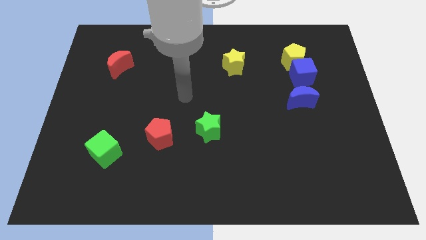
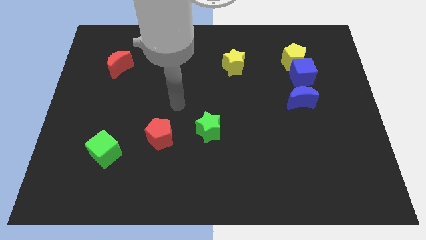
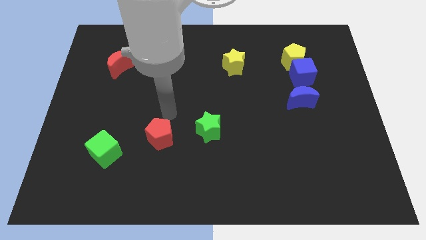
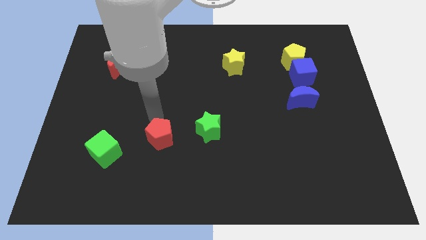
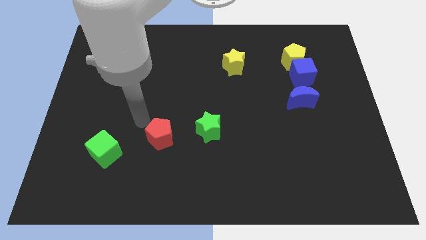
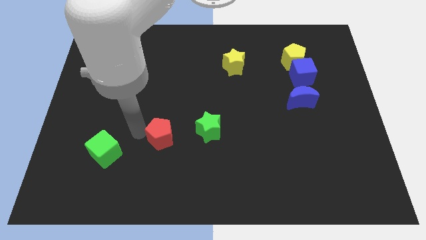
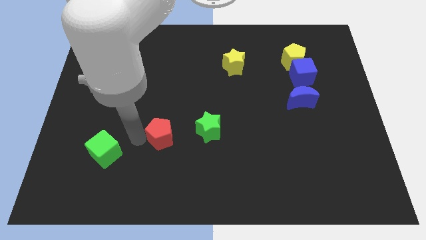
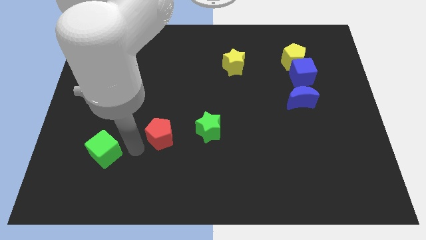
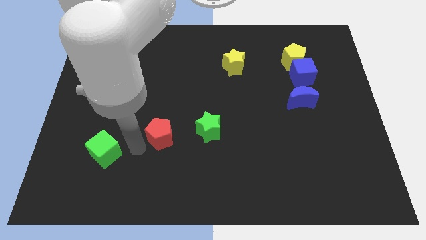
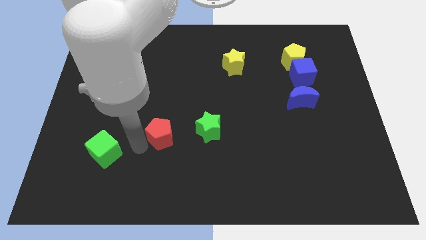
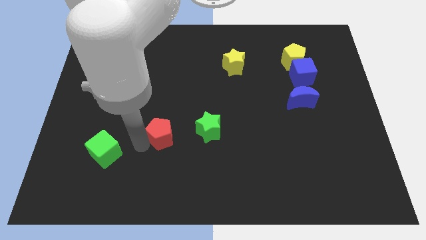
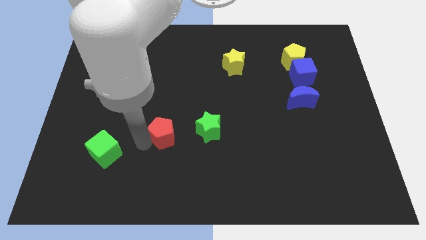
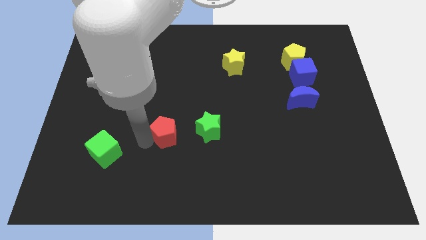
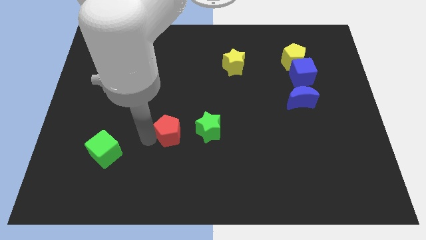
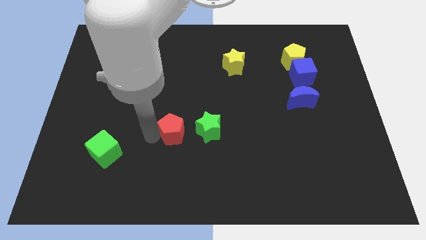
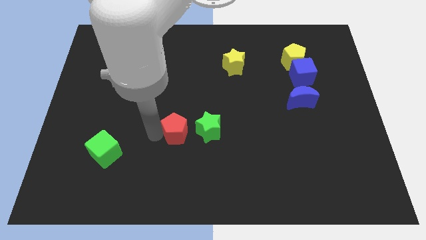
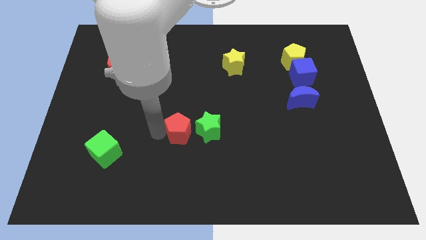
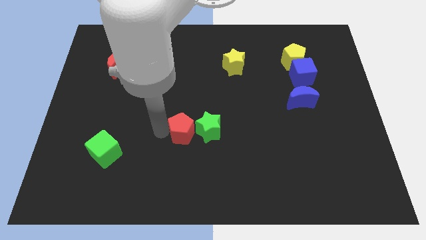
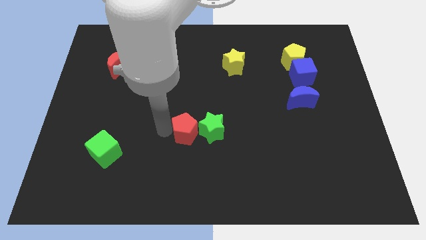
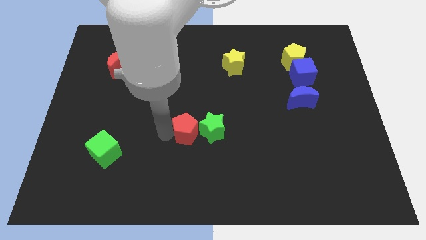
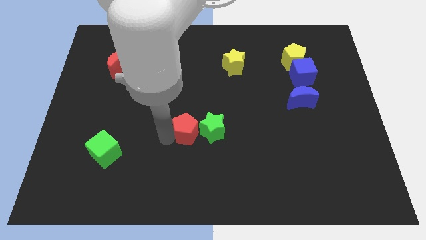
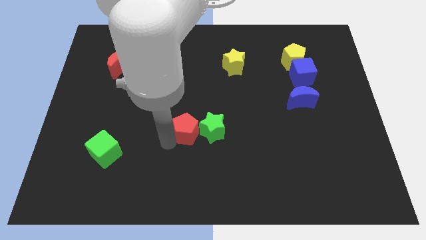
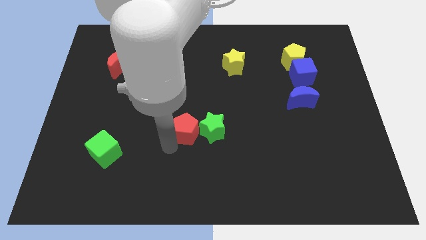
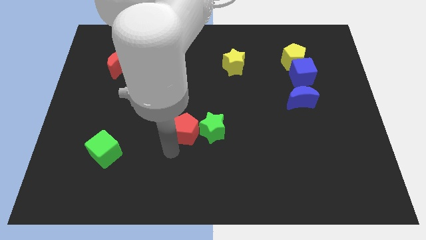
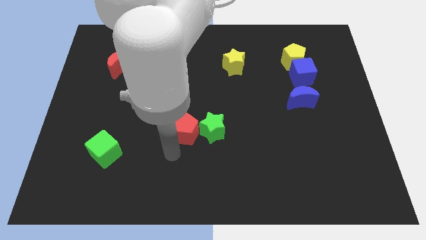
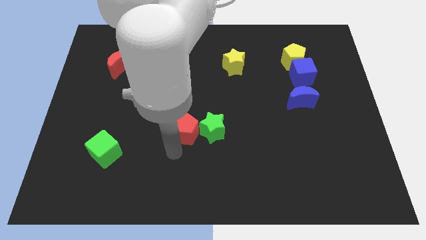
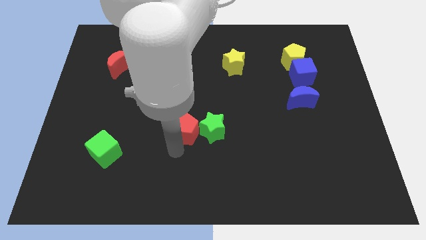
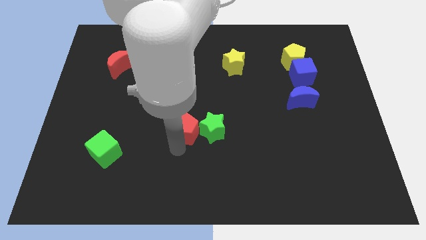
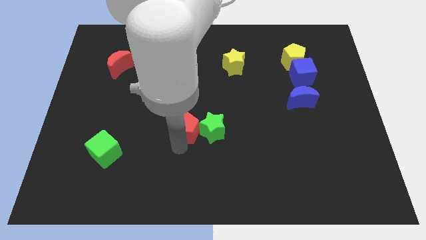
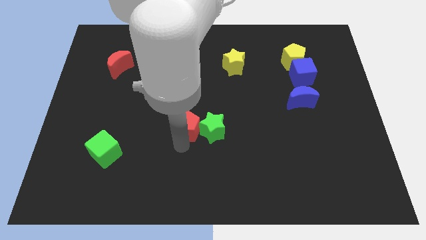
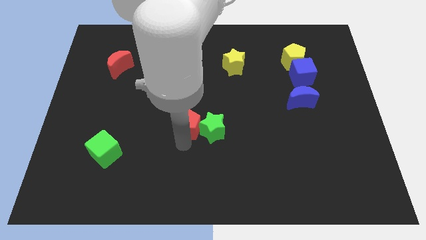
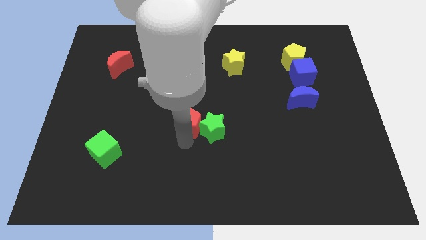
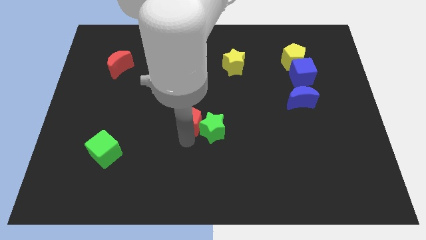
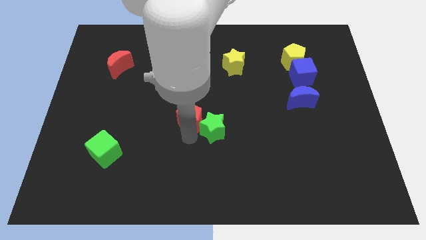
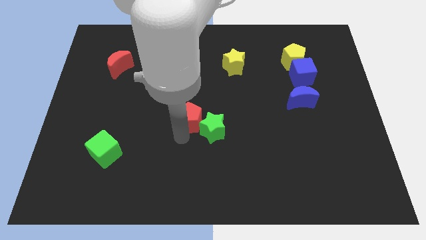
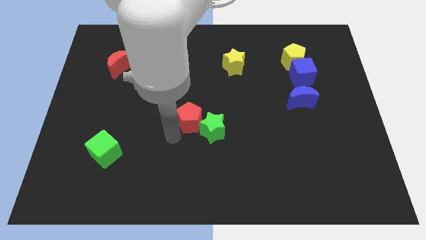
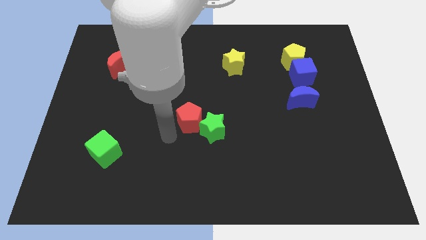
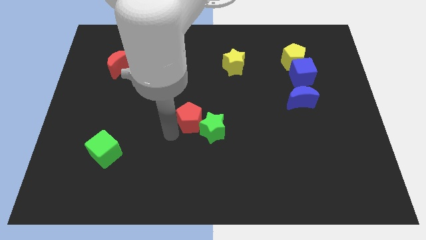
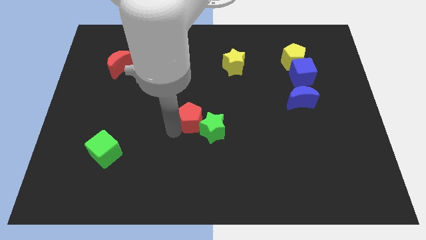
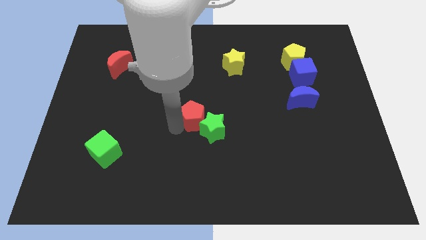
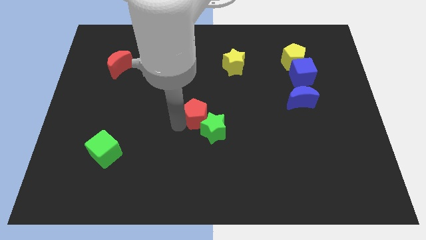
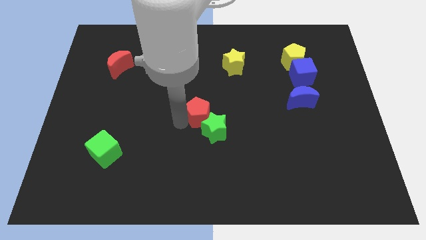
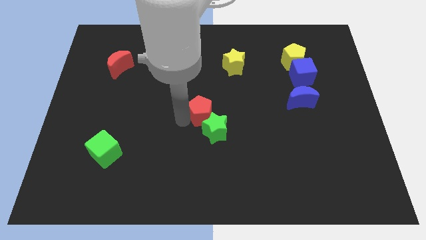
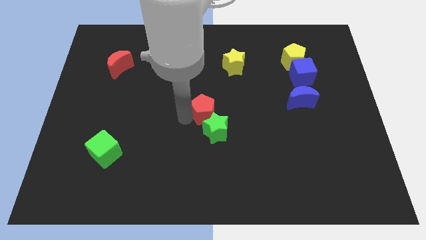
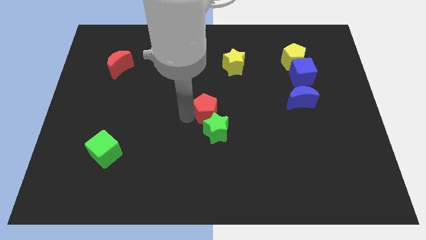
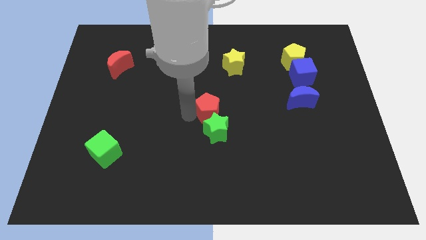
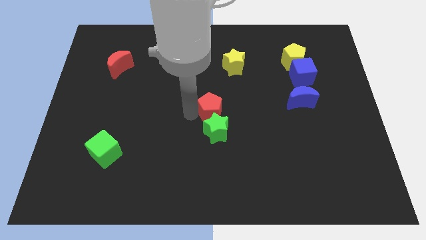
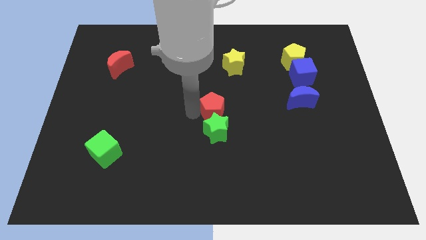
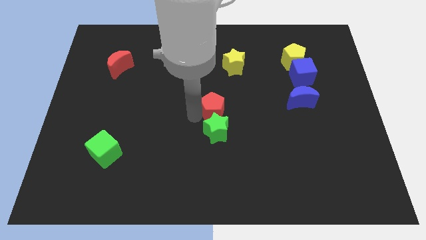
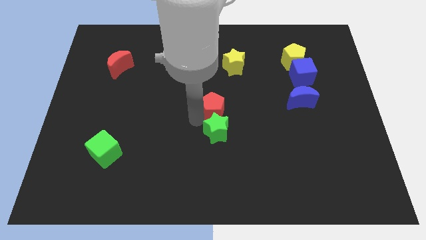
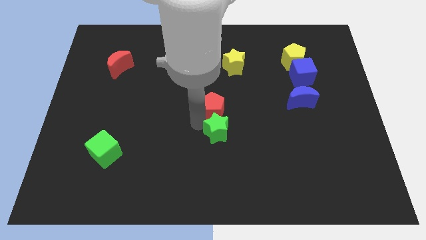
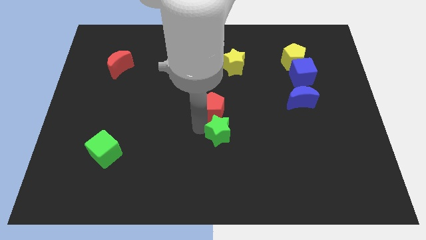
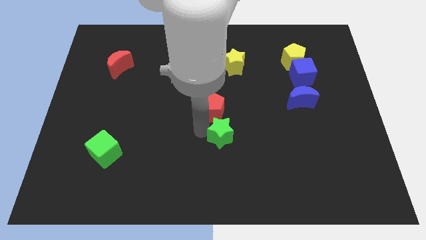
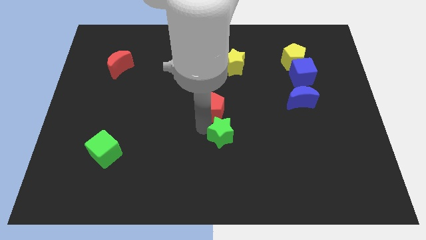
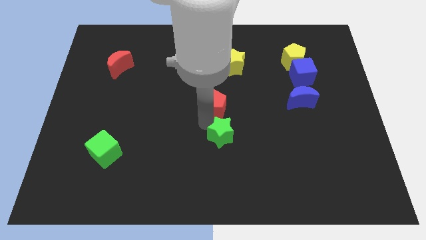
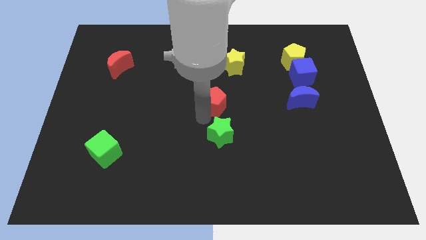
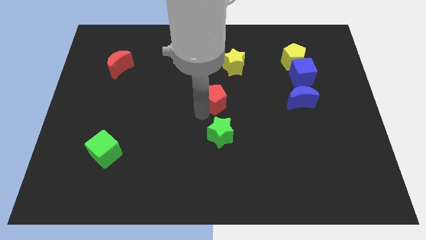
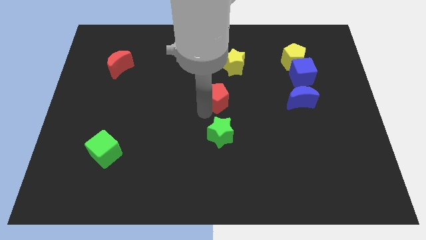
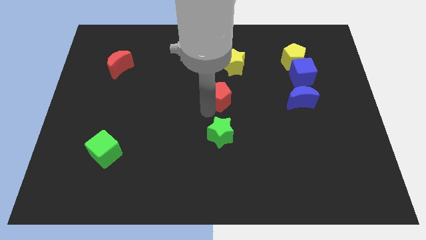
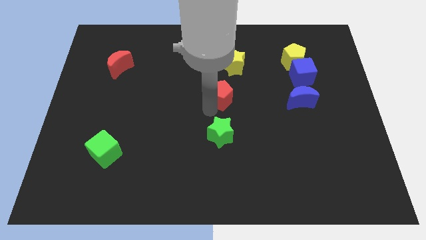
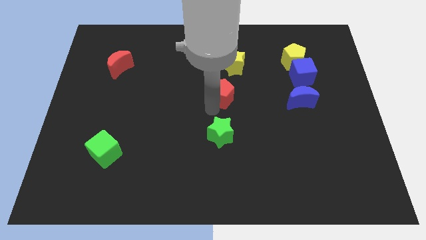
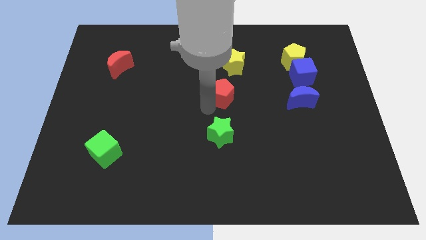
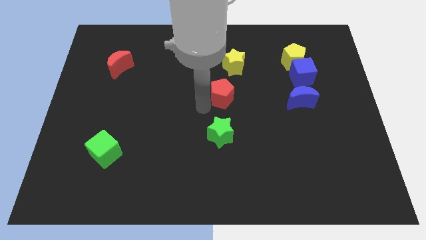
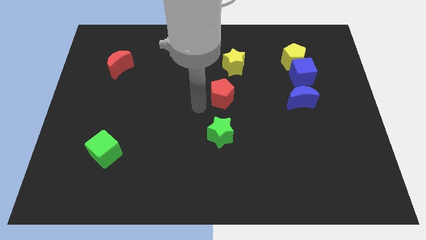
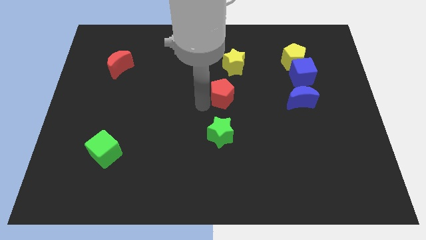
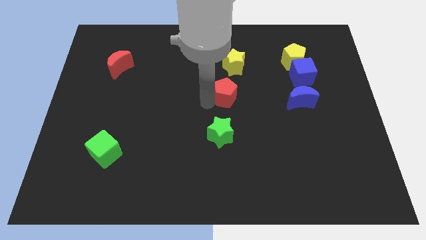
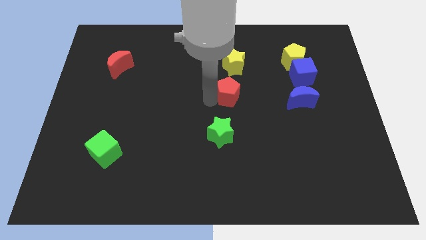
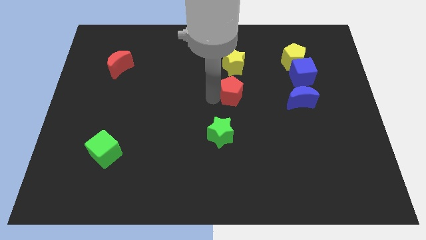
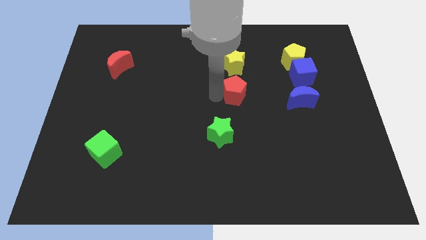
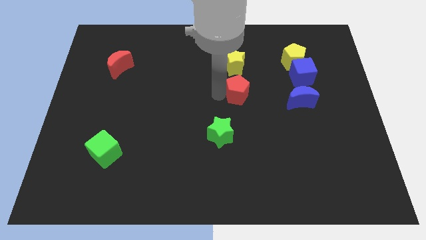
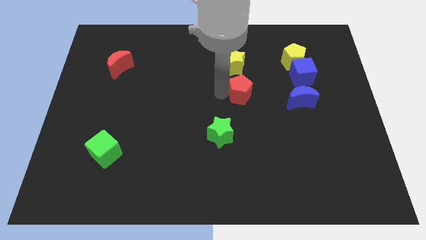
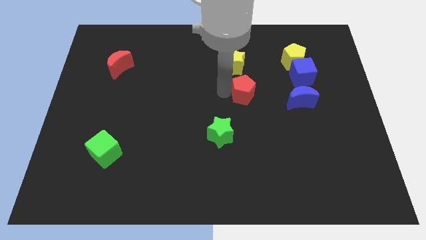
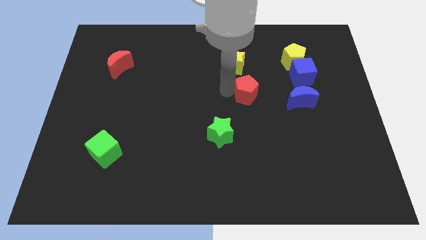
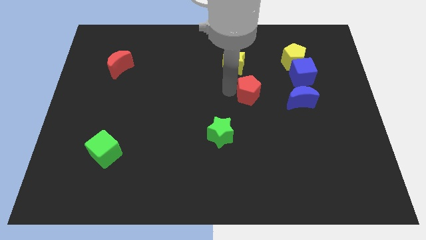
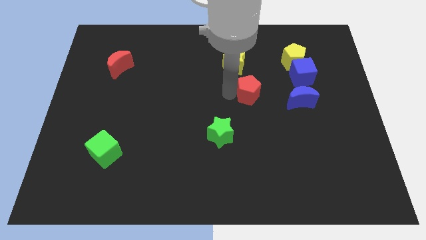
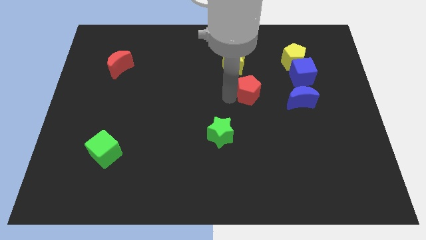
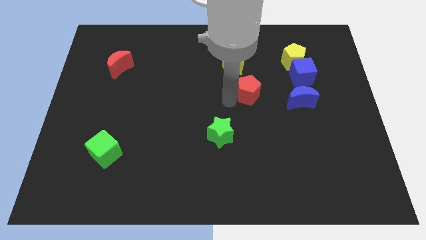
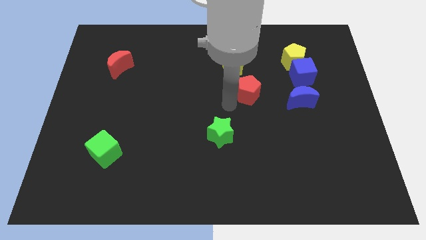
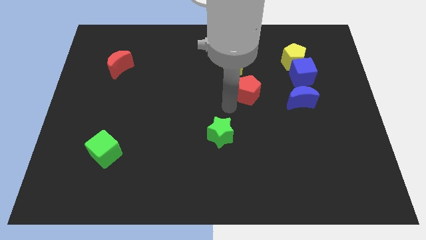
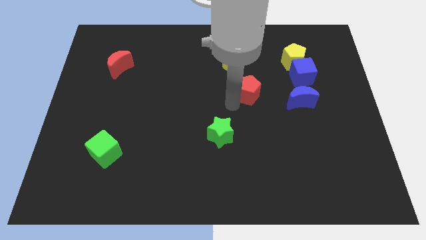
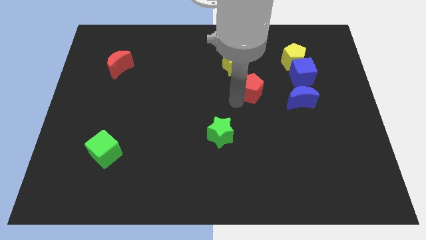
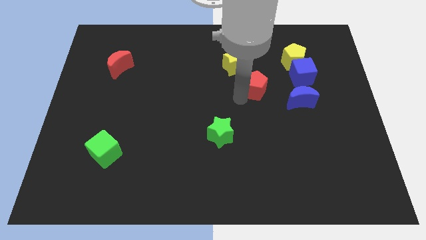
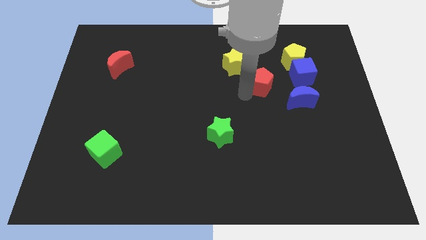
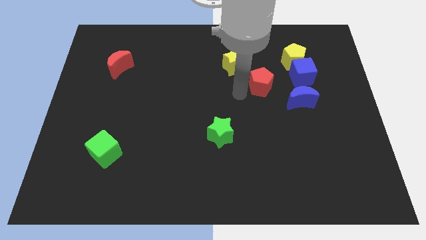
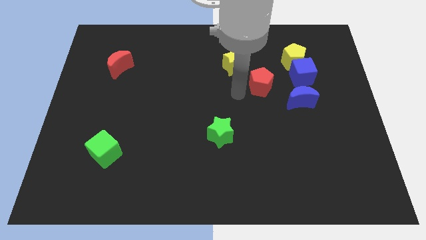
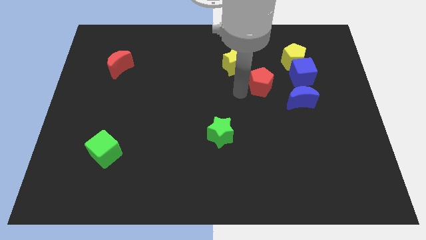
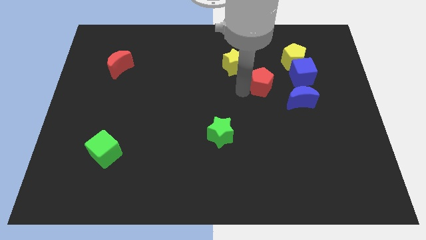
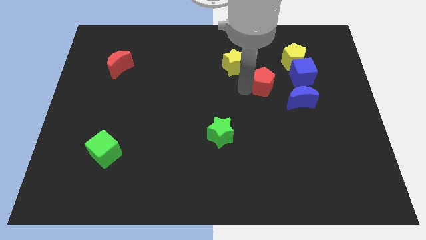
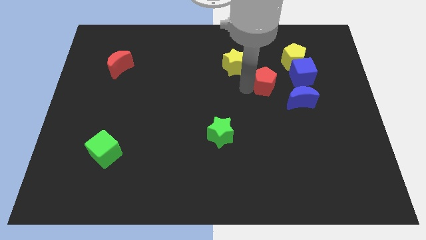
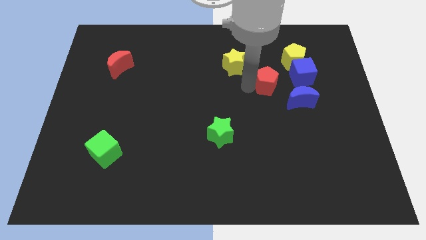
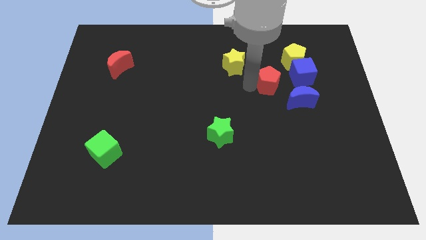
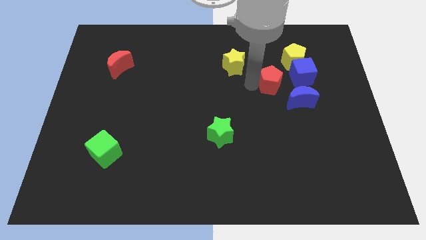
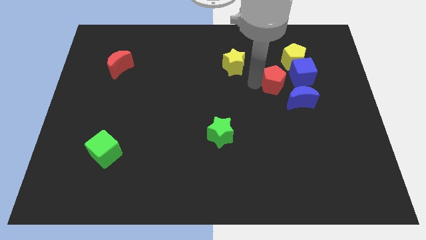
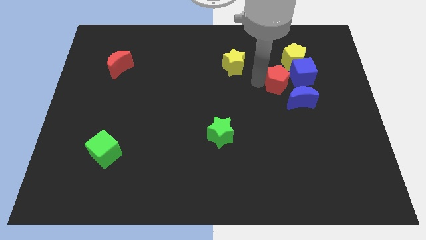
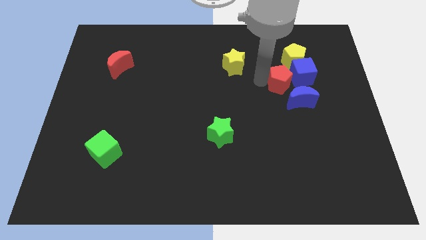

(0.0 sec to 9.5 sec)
put the red pentagon towards the blue cube
